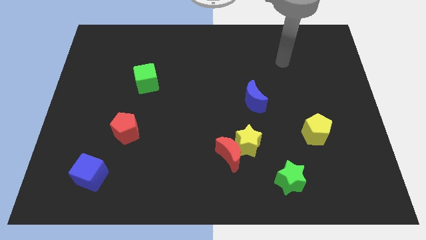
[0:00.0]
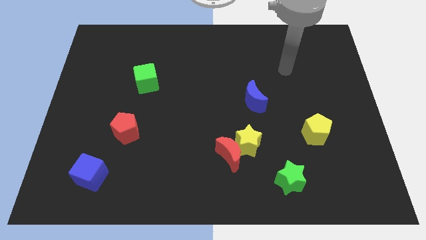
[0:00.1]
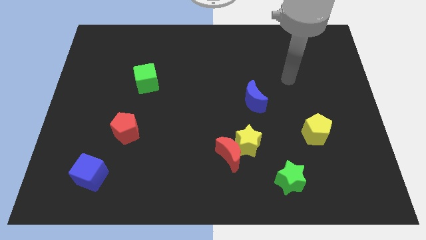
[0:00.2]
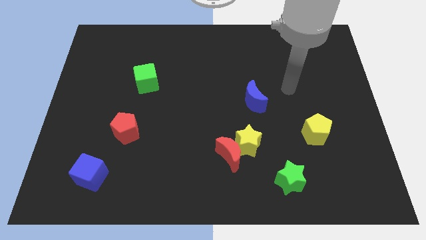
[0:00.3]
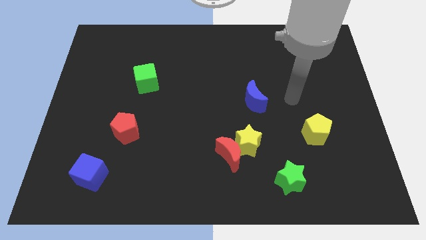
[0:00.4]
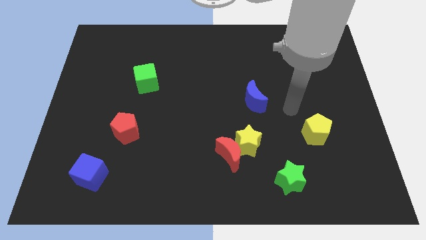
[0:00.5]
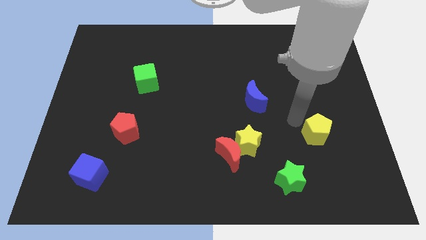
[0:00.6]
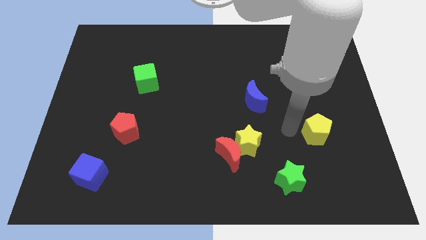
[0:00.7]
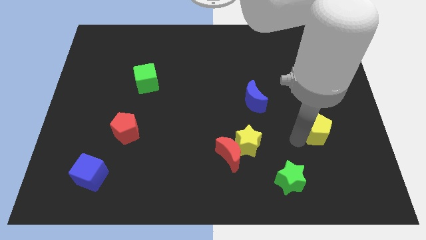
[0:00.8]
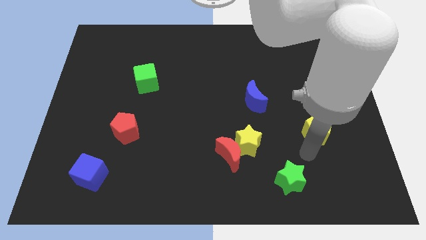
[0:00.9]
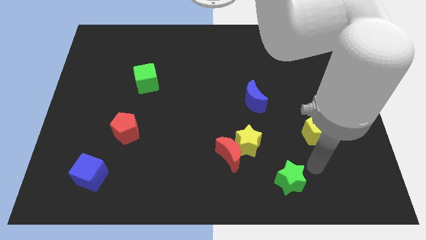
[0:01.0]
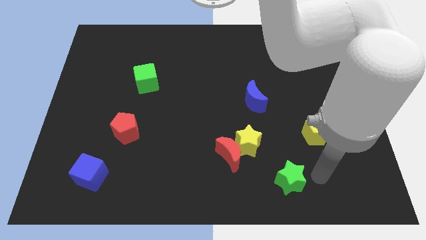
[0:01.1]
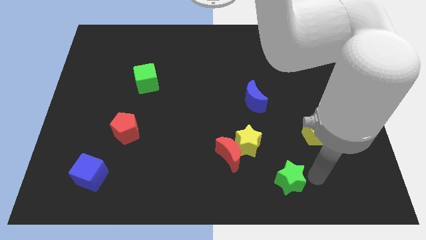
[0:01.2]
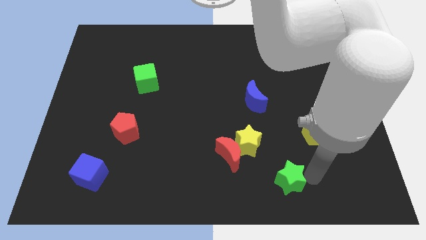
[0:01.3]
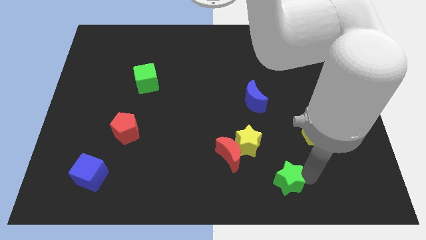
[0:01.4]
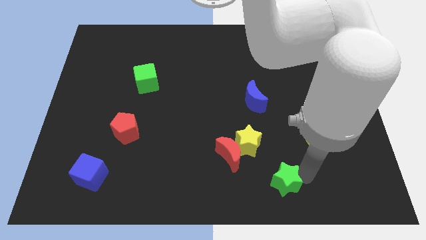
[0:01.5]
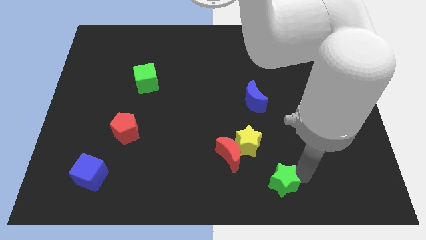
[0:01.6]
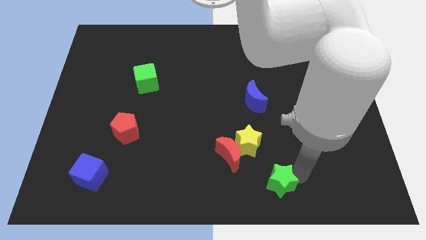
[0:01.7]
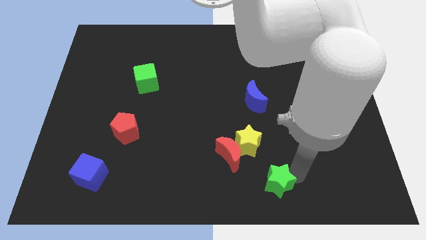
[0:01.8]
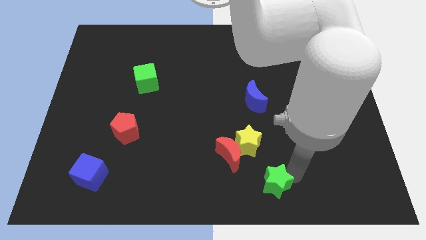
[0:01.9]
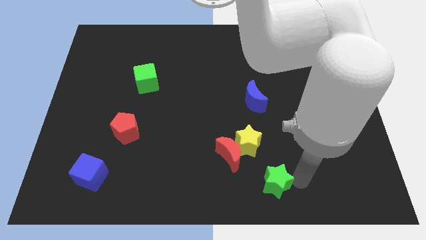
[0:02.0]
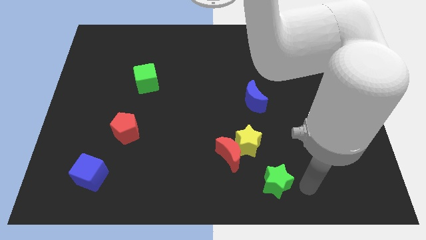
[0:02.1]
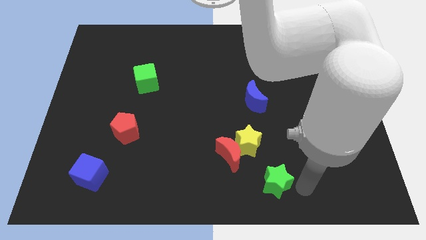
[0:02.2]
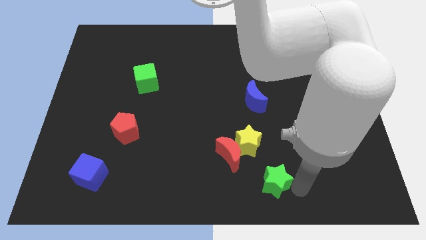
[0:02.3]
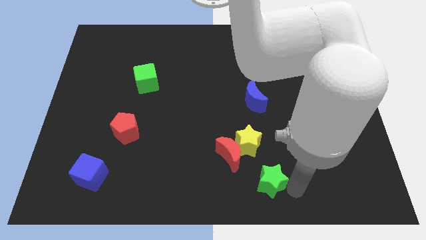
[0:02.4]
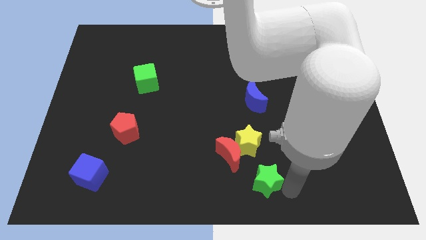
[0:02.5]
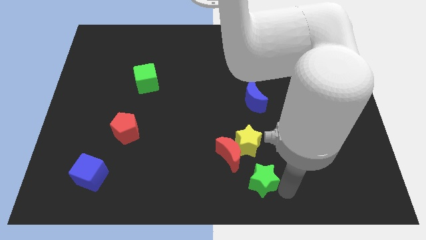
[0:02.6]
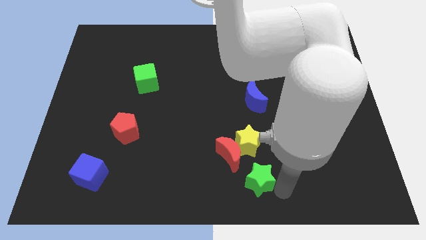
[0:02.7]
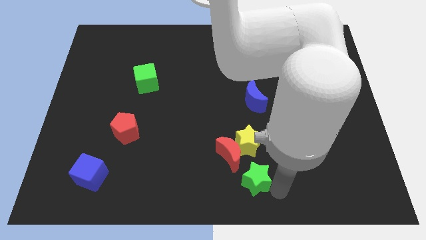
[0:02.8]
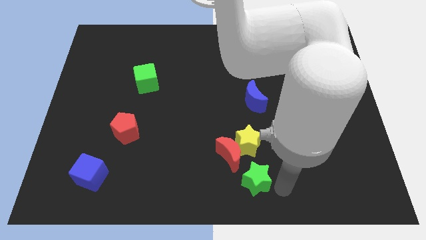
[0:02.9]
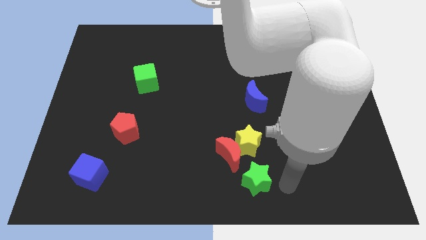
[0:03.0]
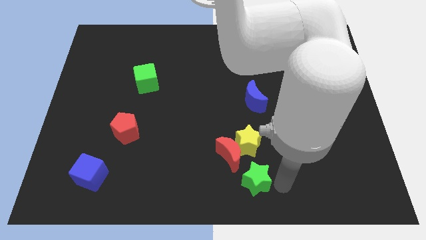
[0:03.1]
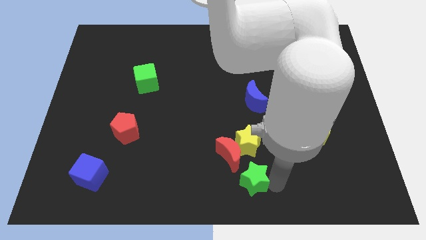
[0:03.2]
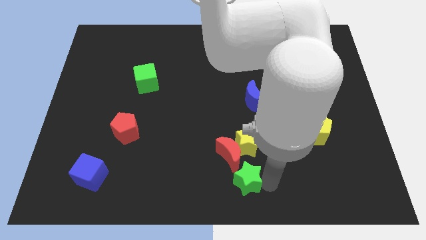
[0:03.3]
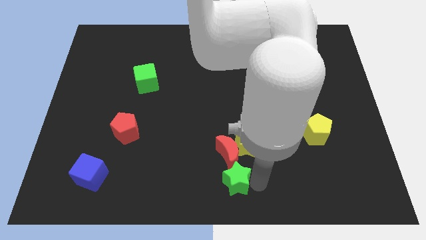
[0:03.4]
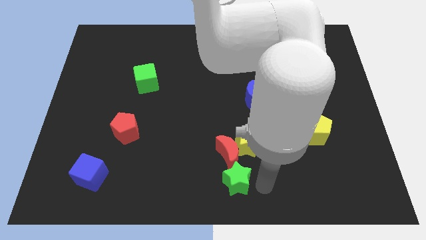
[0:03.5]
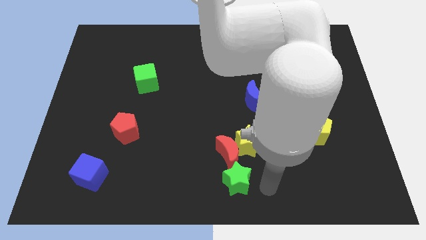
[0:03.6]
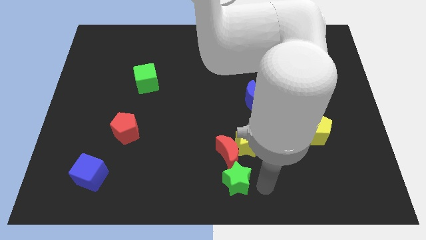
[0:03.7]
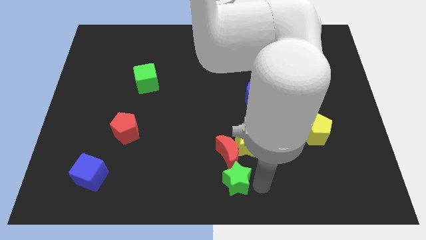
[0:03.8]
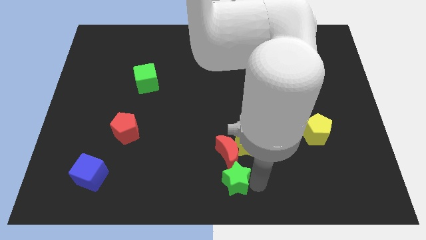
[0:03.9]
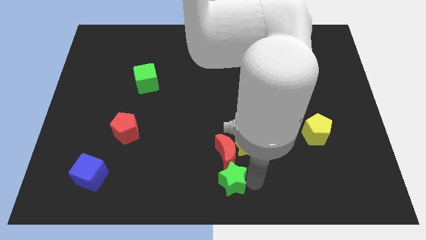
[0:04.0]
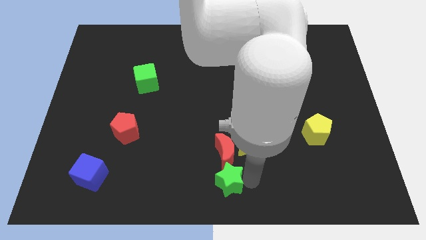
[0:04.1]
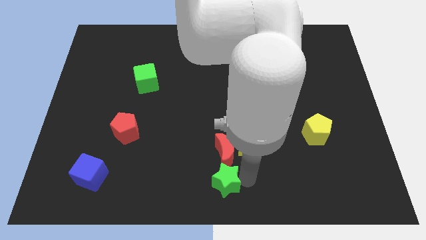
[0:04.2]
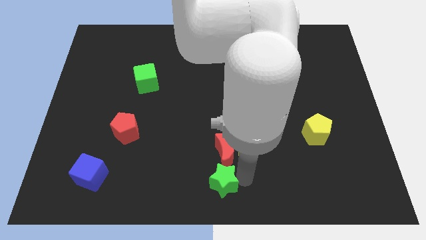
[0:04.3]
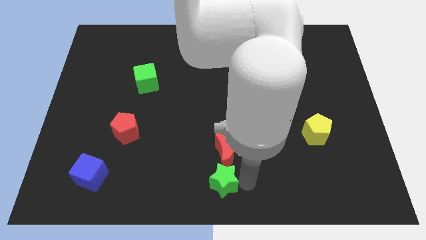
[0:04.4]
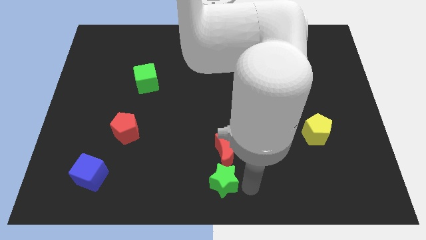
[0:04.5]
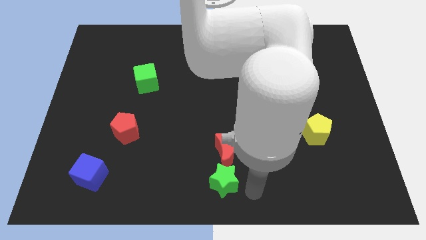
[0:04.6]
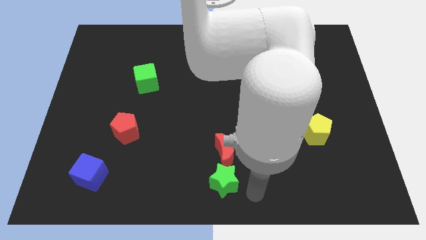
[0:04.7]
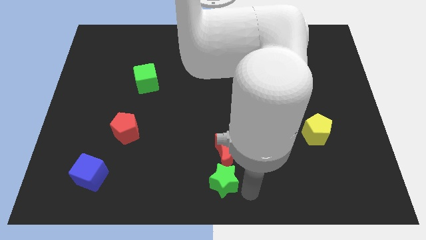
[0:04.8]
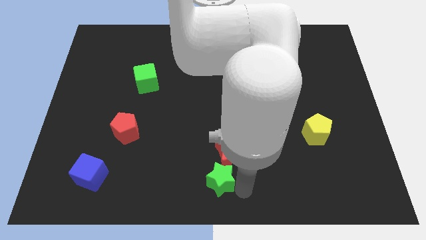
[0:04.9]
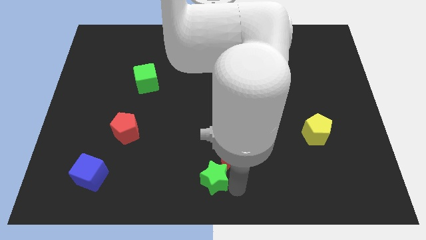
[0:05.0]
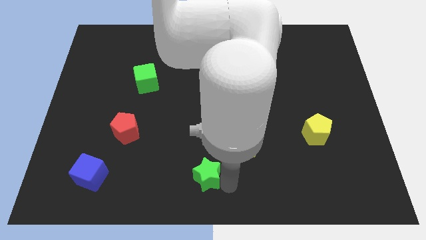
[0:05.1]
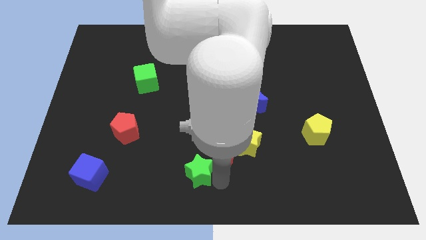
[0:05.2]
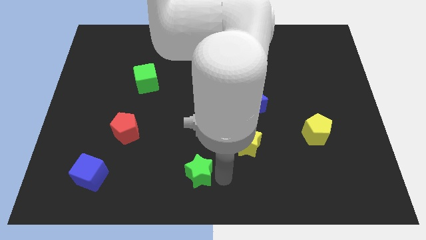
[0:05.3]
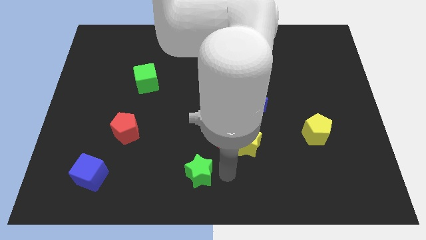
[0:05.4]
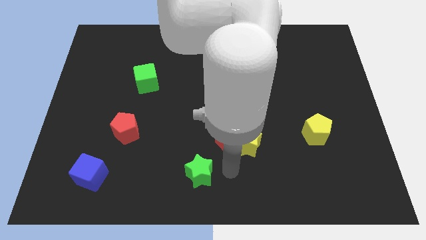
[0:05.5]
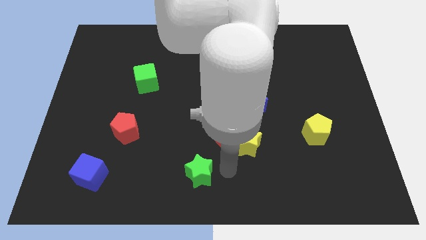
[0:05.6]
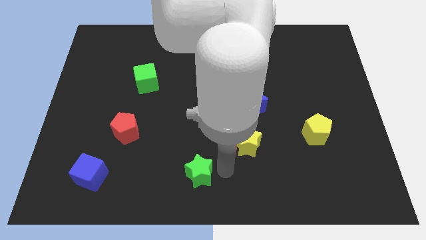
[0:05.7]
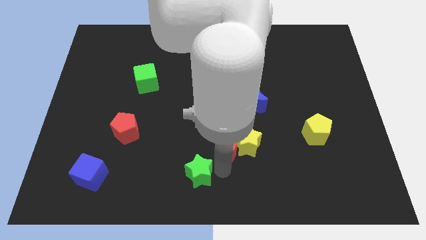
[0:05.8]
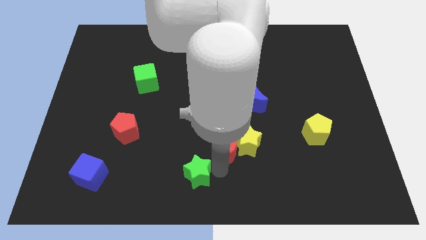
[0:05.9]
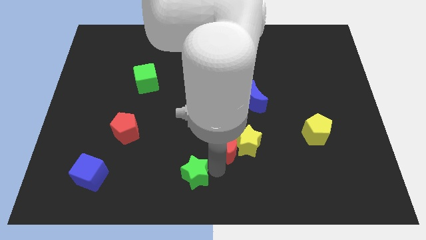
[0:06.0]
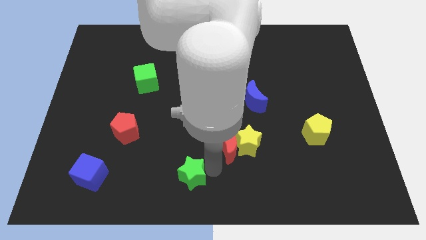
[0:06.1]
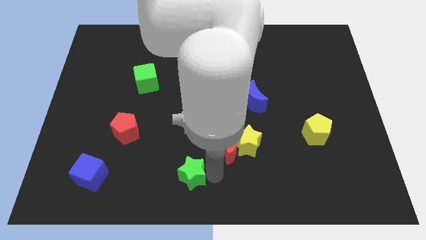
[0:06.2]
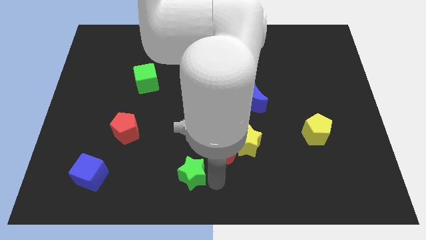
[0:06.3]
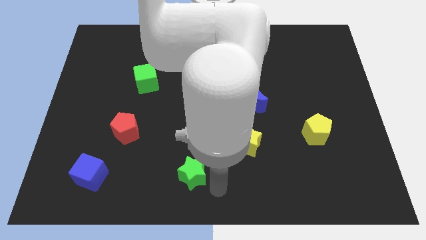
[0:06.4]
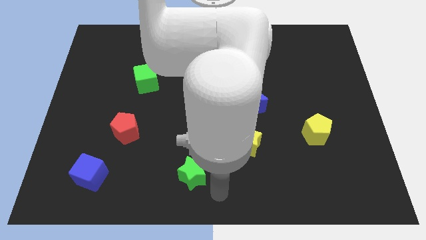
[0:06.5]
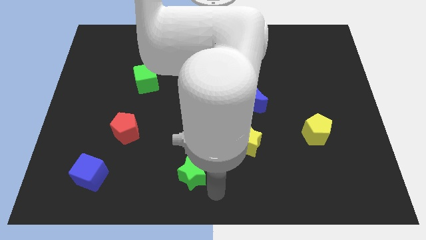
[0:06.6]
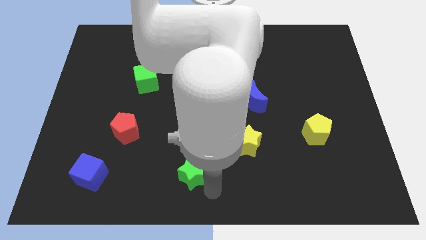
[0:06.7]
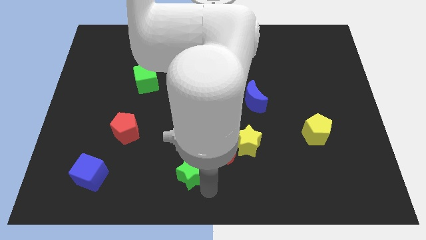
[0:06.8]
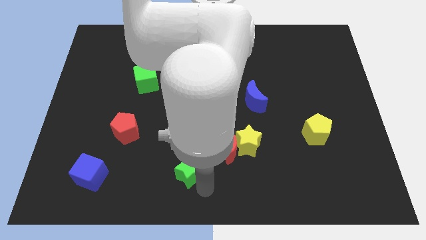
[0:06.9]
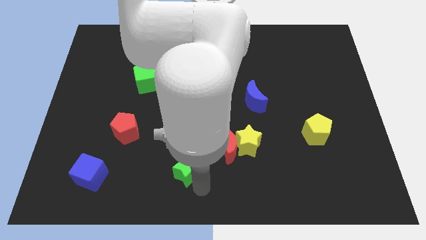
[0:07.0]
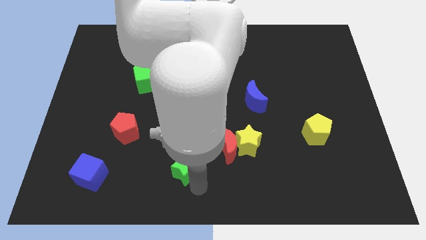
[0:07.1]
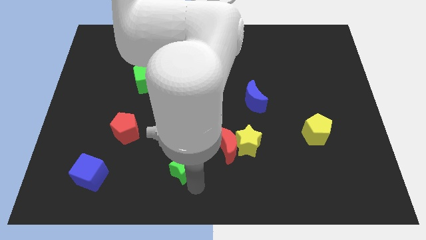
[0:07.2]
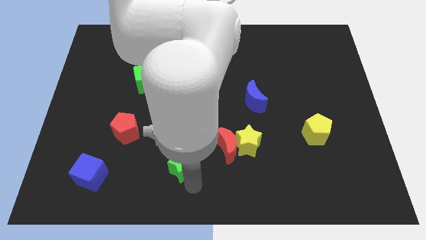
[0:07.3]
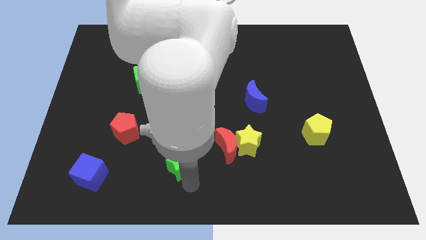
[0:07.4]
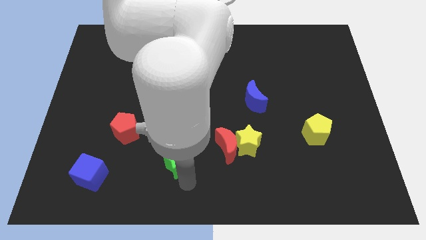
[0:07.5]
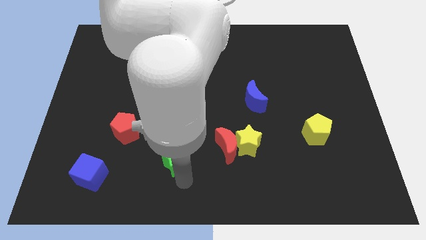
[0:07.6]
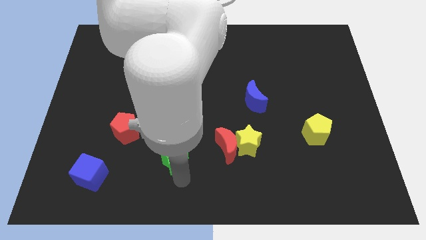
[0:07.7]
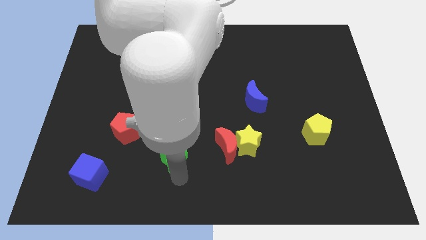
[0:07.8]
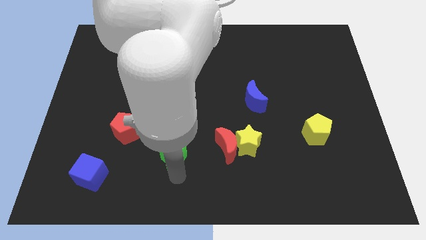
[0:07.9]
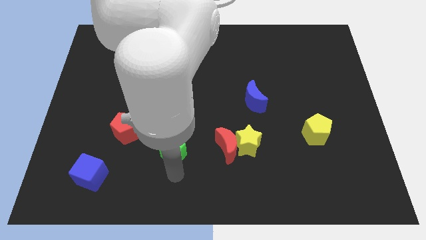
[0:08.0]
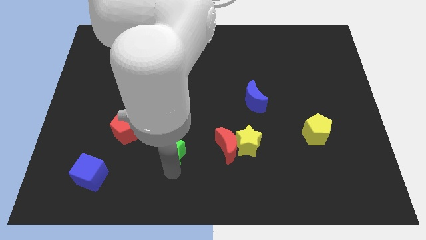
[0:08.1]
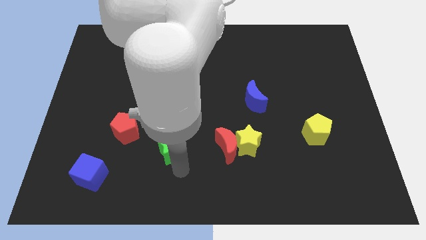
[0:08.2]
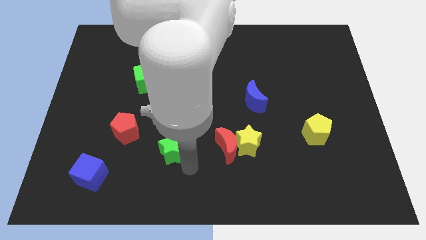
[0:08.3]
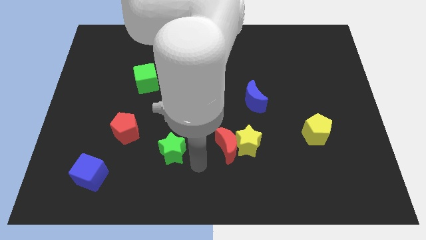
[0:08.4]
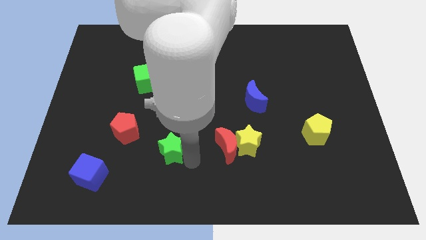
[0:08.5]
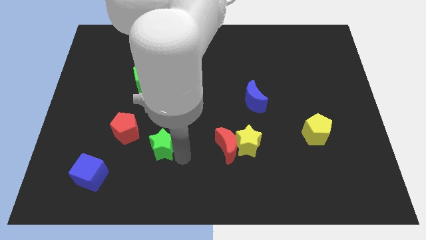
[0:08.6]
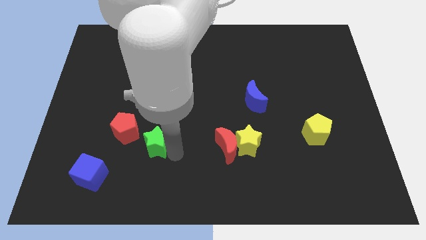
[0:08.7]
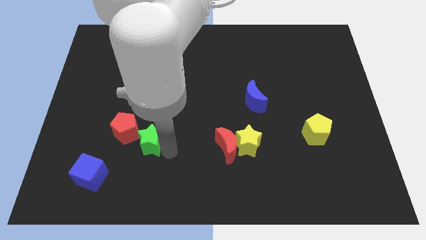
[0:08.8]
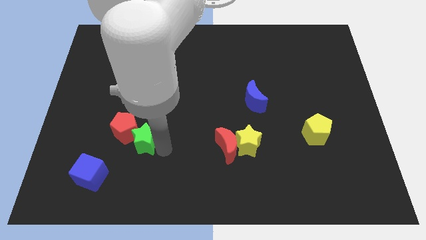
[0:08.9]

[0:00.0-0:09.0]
move the green star close to the red pentagon
